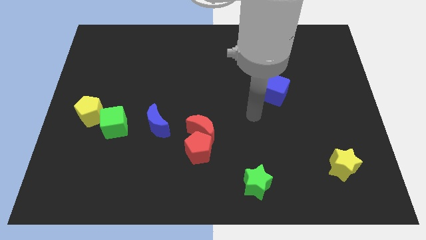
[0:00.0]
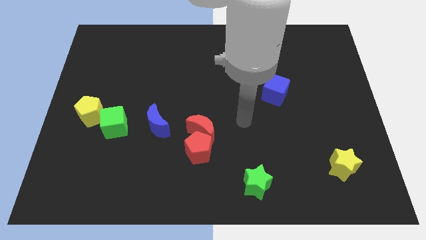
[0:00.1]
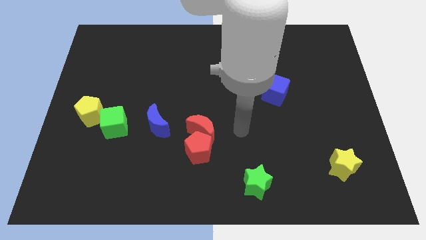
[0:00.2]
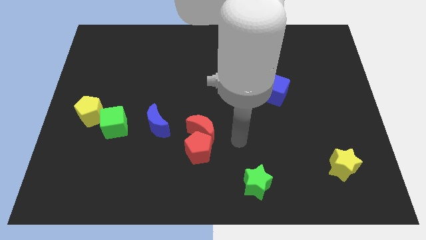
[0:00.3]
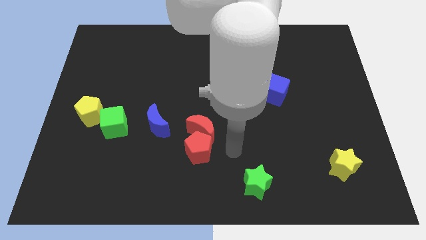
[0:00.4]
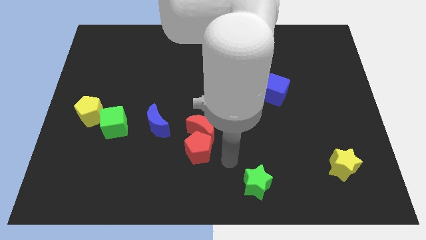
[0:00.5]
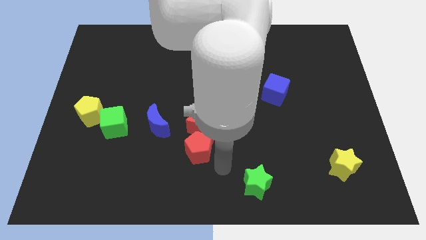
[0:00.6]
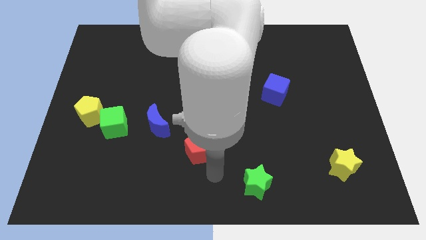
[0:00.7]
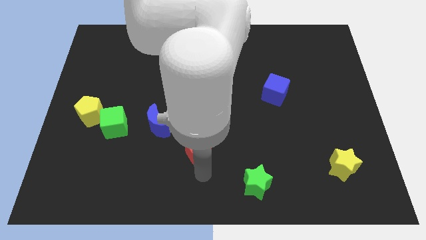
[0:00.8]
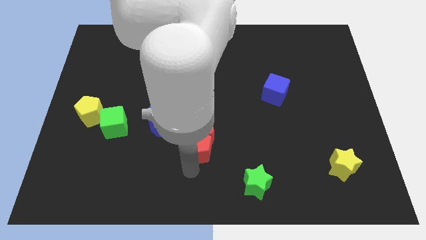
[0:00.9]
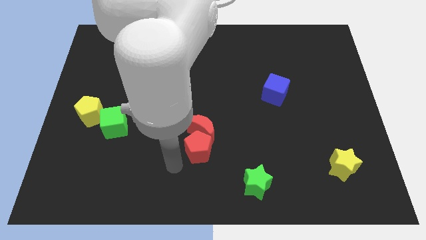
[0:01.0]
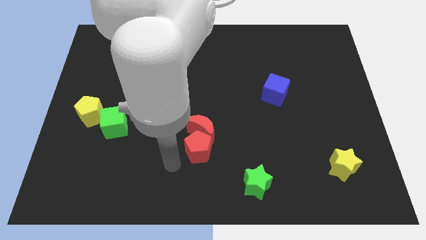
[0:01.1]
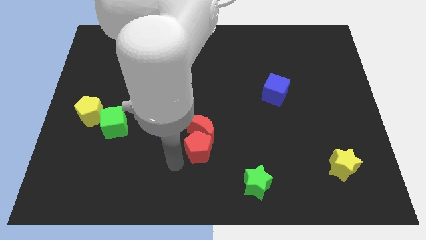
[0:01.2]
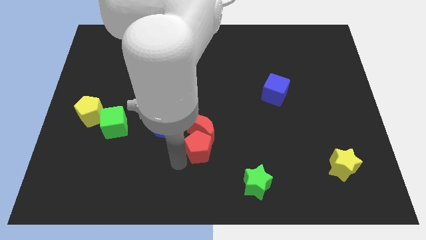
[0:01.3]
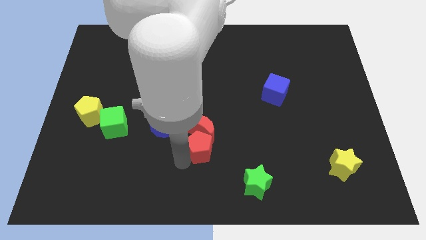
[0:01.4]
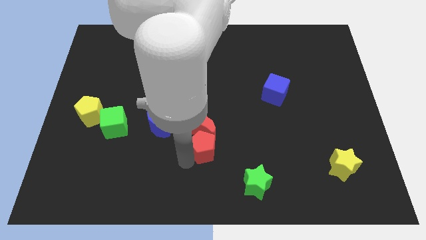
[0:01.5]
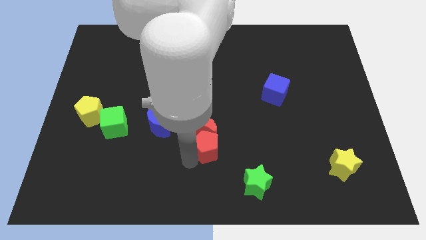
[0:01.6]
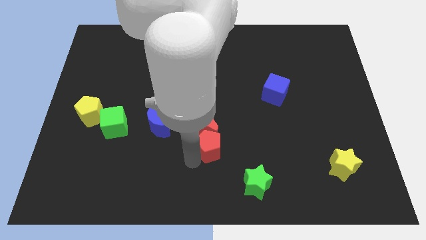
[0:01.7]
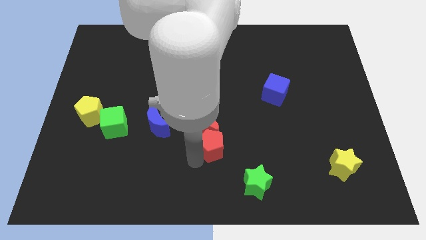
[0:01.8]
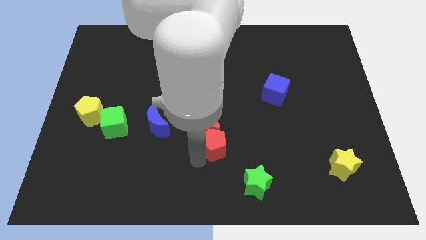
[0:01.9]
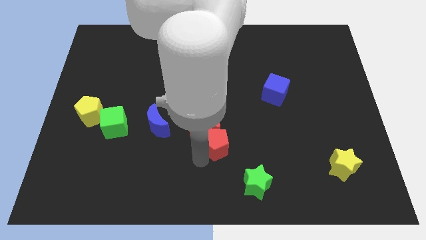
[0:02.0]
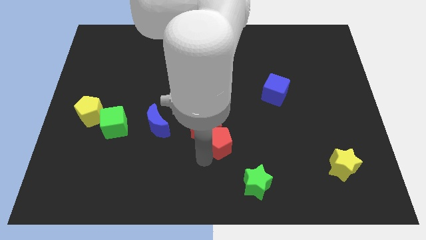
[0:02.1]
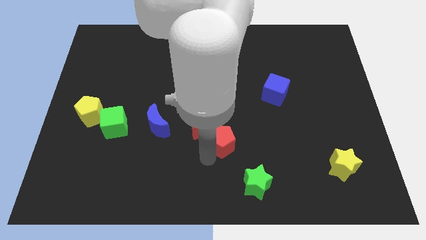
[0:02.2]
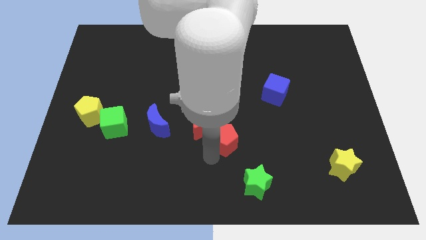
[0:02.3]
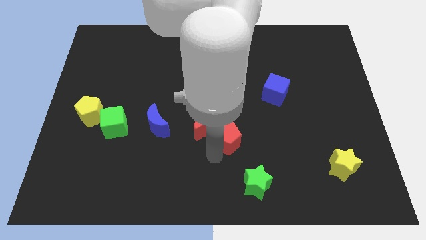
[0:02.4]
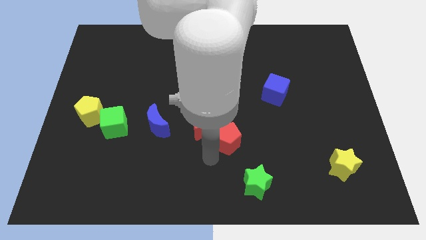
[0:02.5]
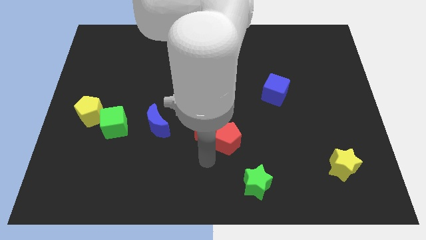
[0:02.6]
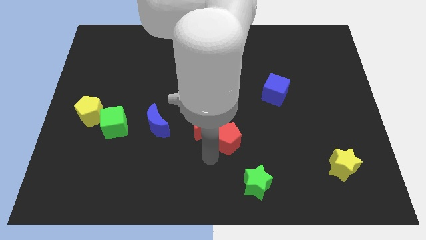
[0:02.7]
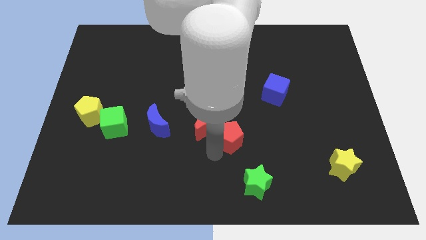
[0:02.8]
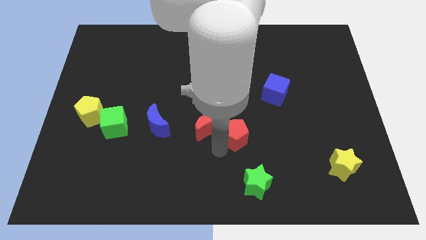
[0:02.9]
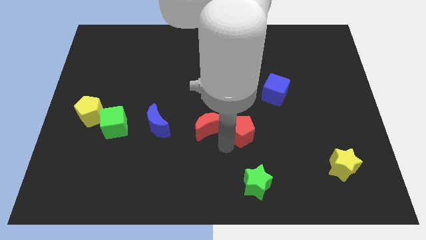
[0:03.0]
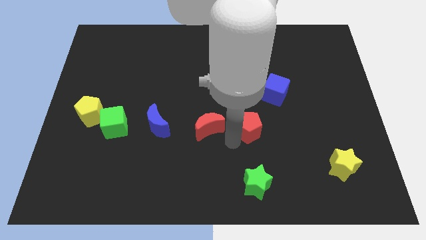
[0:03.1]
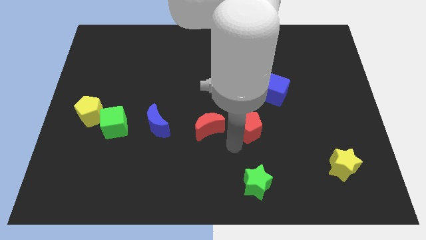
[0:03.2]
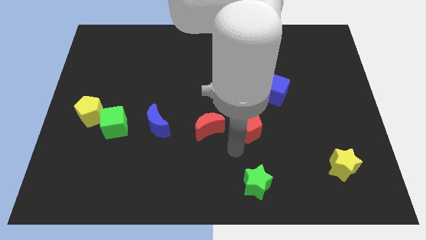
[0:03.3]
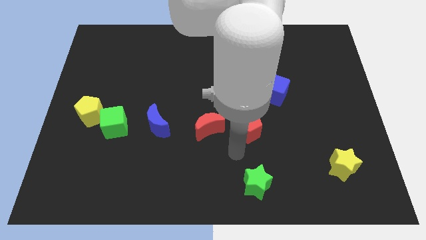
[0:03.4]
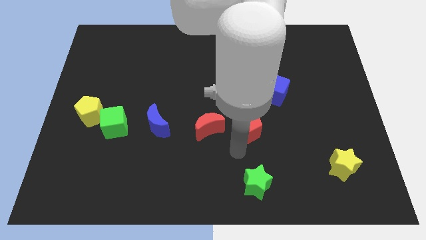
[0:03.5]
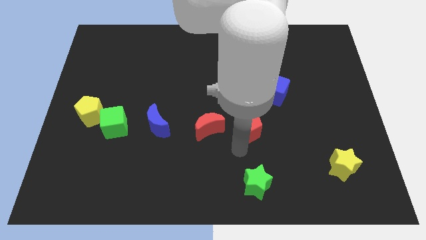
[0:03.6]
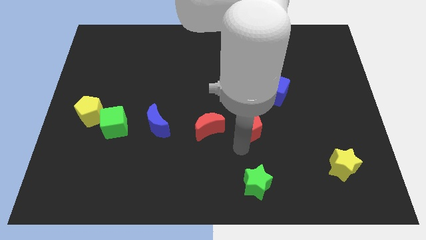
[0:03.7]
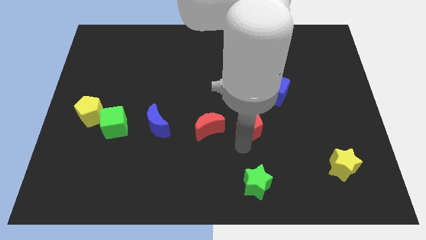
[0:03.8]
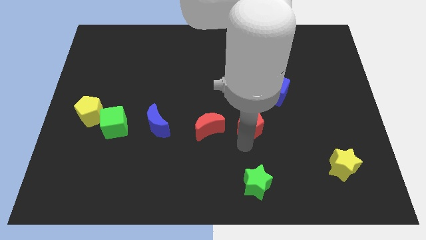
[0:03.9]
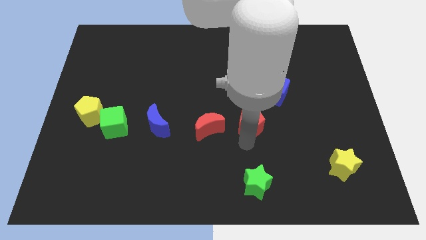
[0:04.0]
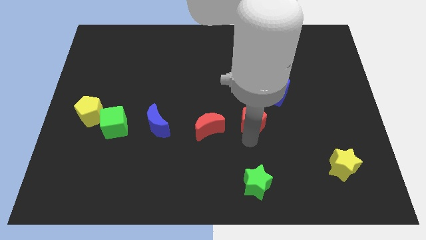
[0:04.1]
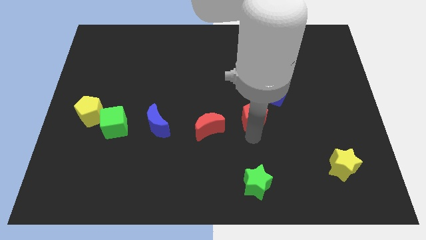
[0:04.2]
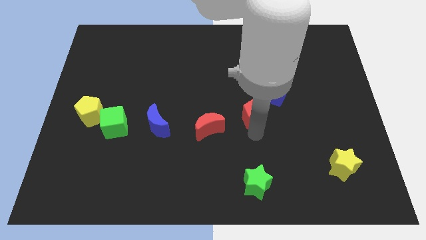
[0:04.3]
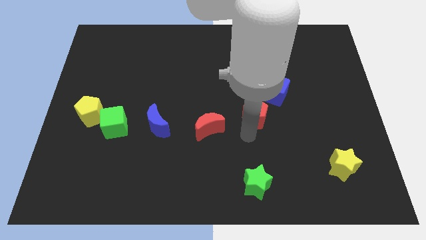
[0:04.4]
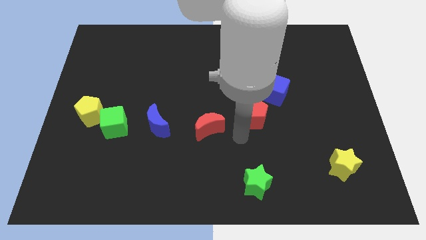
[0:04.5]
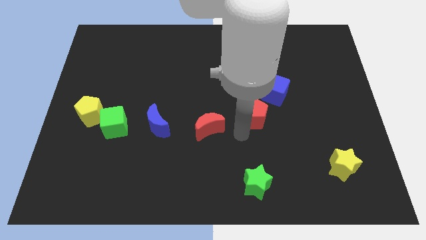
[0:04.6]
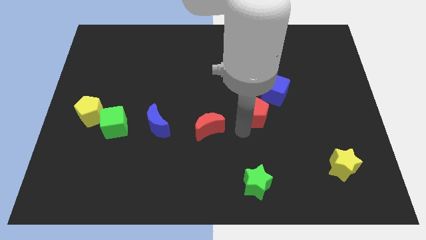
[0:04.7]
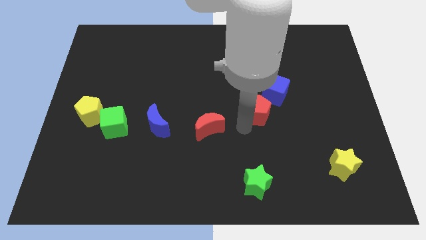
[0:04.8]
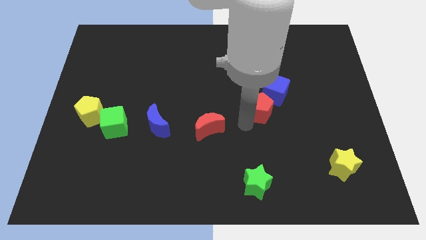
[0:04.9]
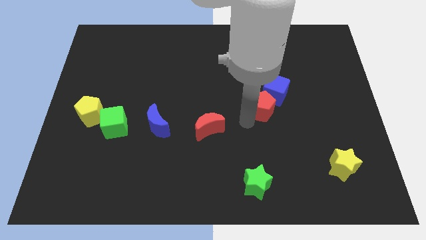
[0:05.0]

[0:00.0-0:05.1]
put the red pentagon next to the blue cube

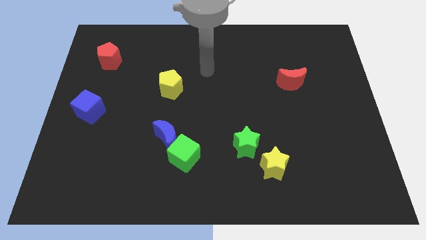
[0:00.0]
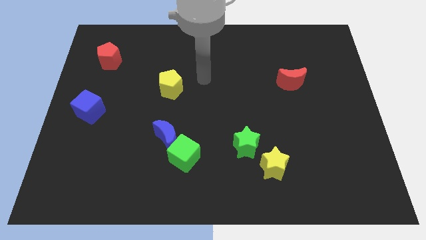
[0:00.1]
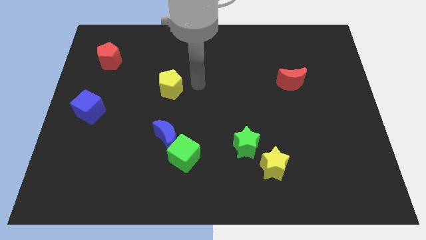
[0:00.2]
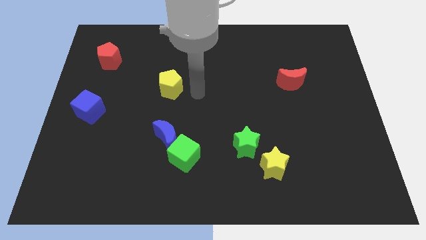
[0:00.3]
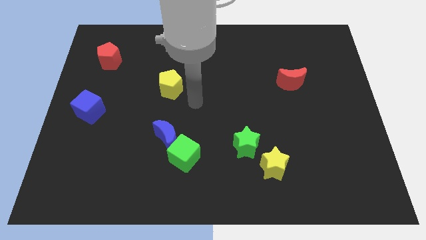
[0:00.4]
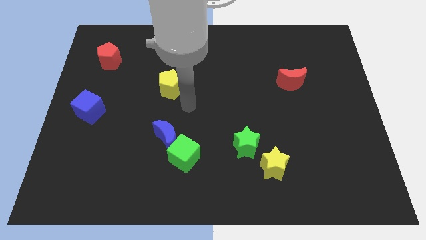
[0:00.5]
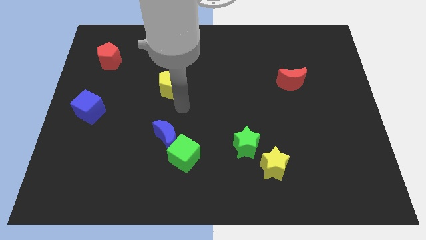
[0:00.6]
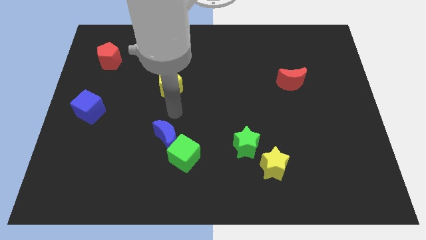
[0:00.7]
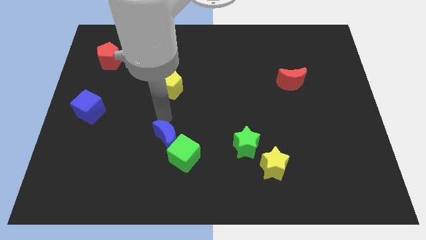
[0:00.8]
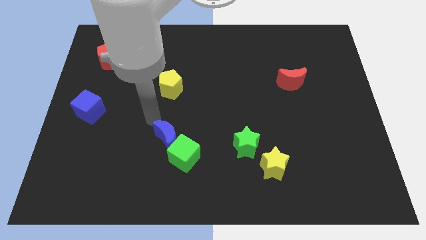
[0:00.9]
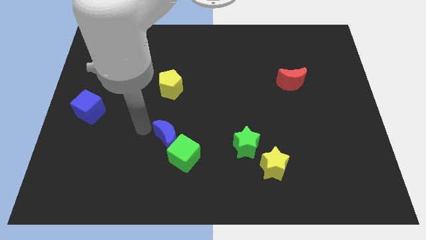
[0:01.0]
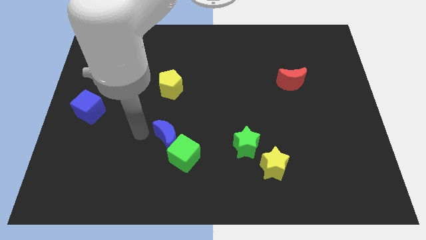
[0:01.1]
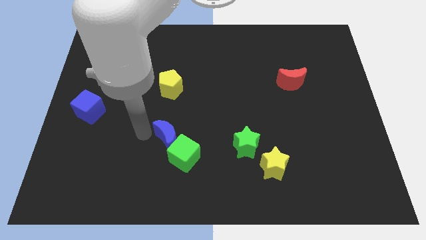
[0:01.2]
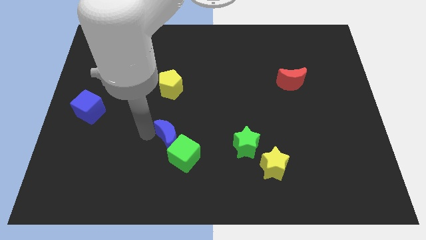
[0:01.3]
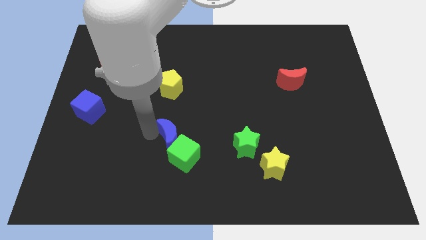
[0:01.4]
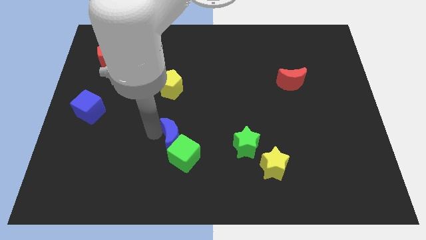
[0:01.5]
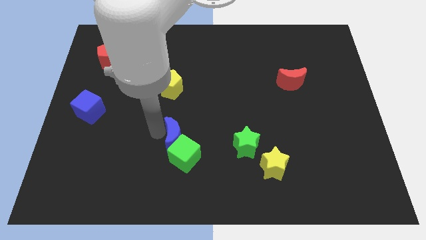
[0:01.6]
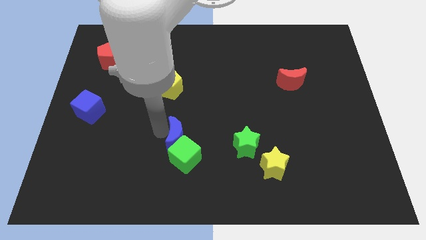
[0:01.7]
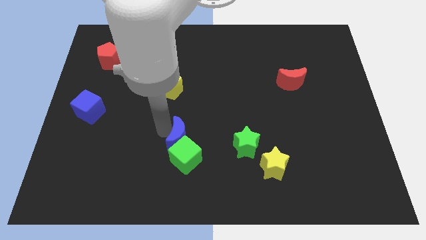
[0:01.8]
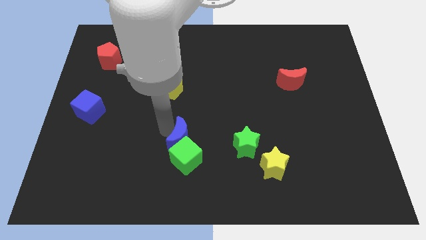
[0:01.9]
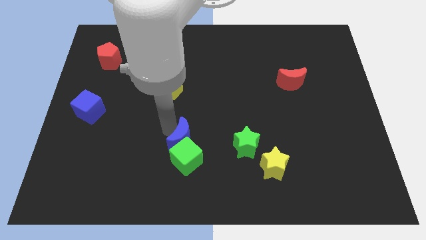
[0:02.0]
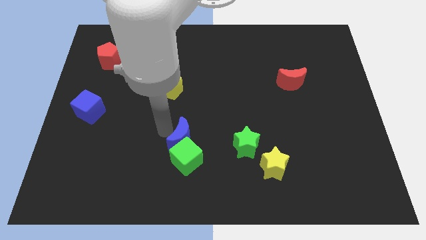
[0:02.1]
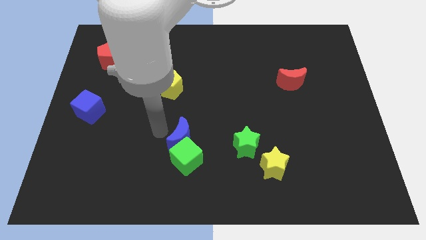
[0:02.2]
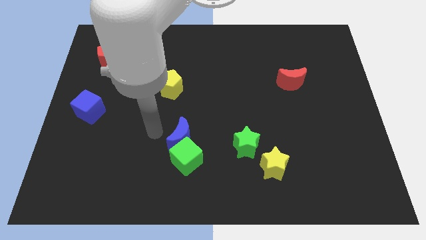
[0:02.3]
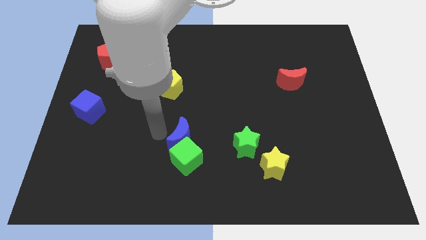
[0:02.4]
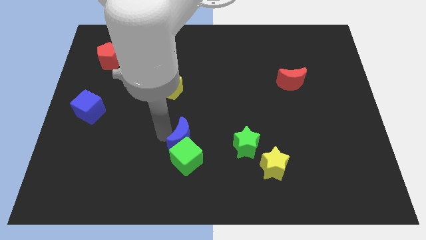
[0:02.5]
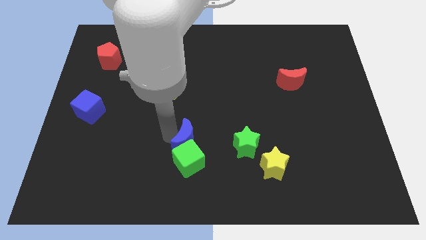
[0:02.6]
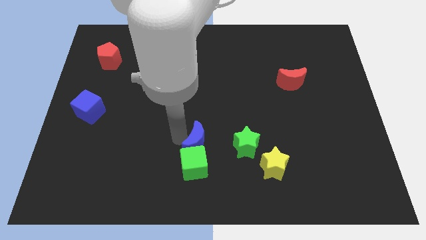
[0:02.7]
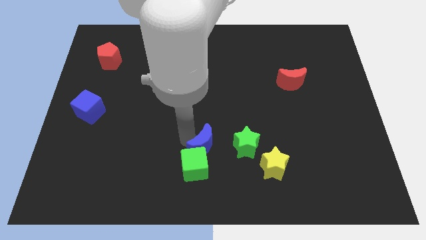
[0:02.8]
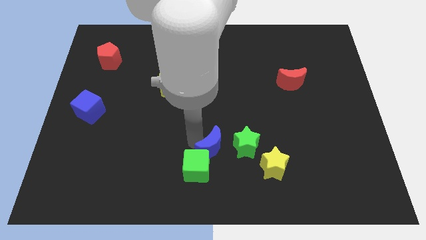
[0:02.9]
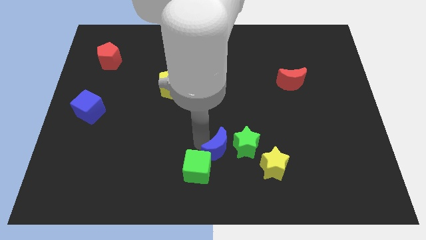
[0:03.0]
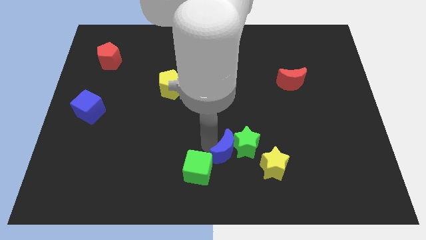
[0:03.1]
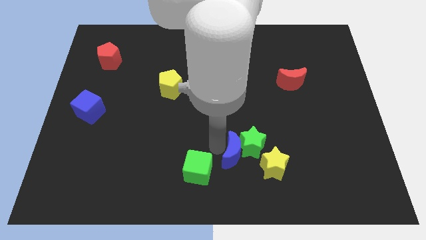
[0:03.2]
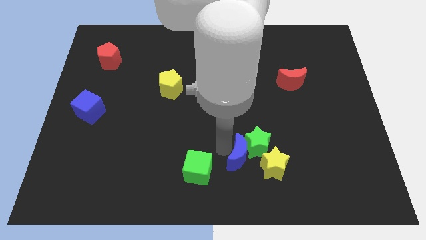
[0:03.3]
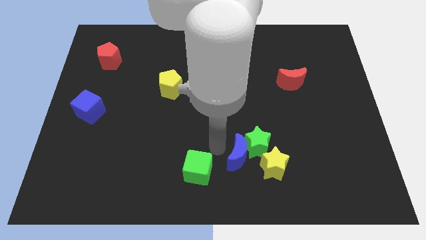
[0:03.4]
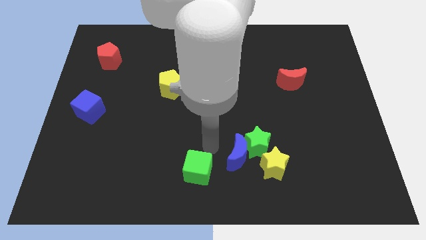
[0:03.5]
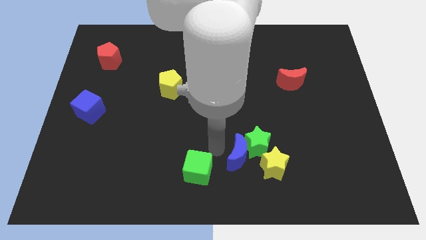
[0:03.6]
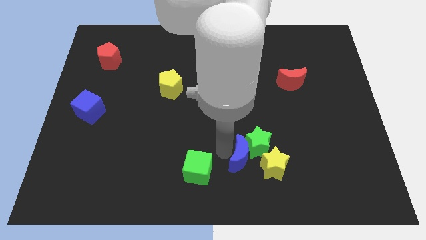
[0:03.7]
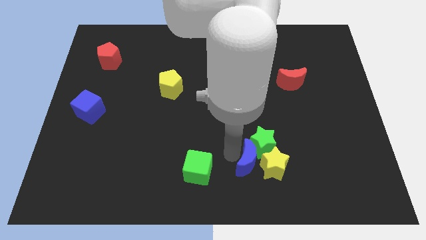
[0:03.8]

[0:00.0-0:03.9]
slide the blue moon next to the yellow star
